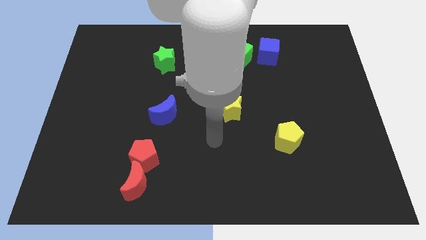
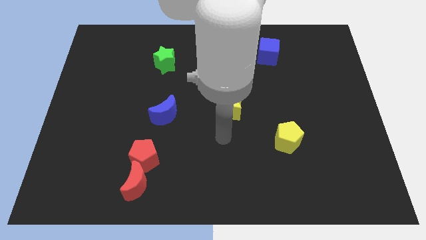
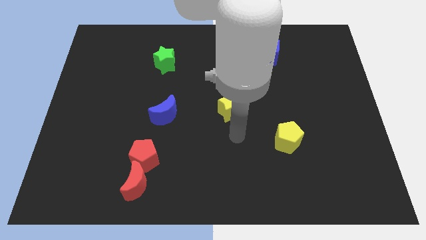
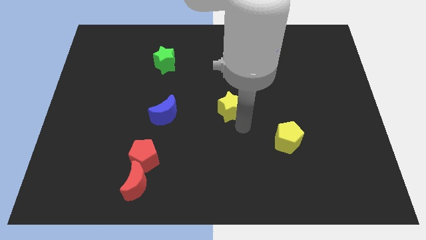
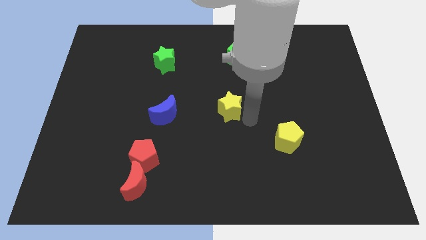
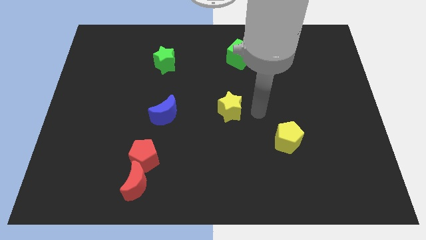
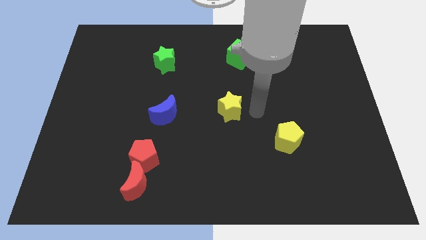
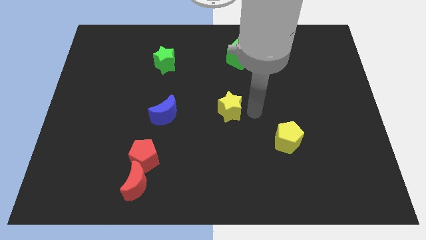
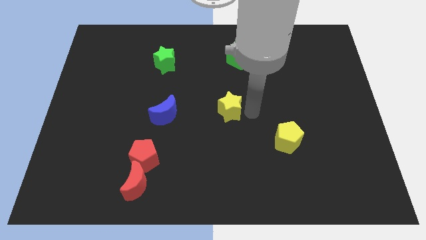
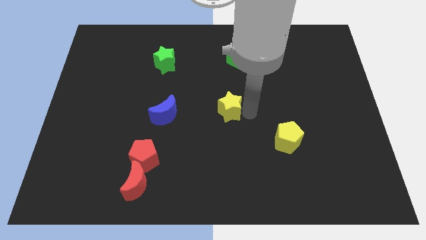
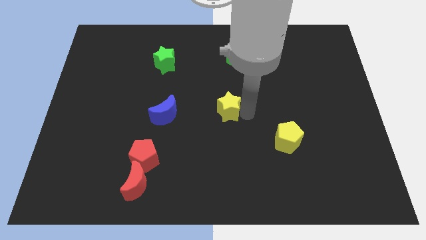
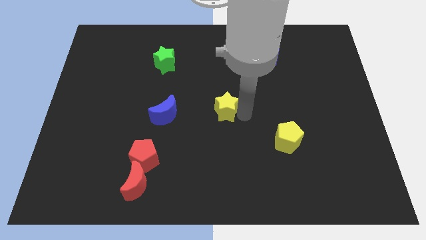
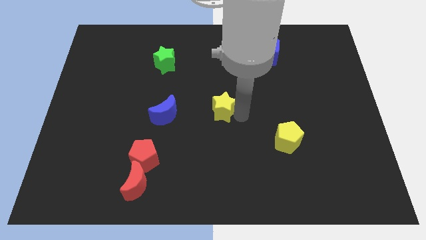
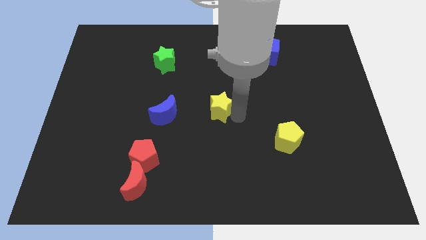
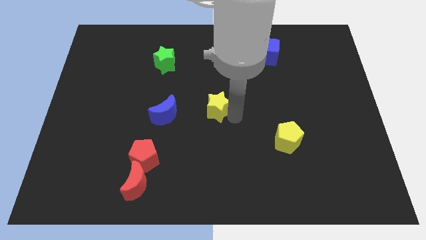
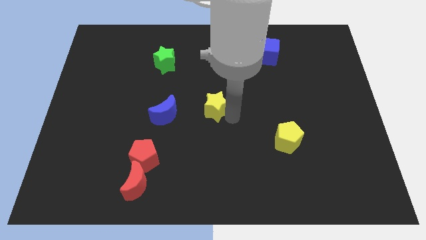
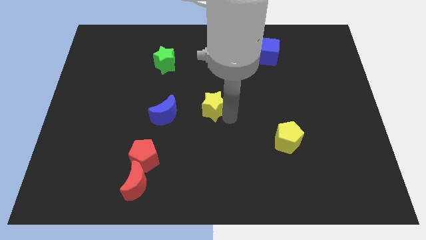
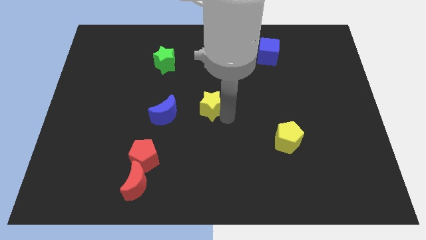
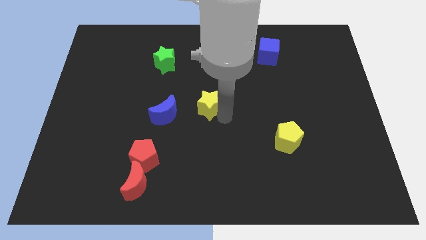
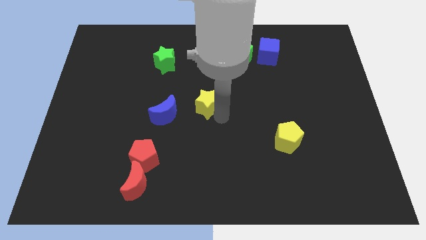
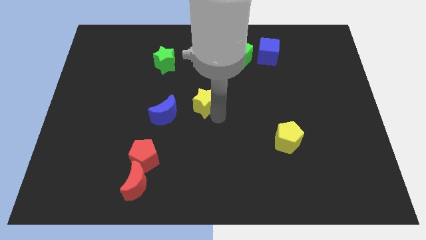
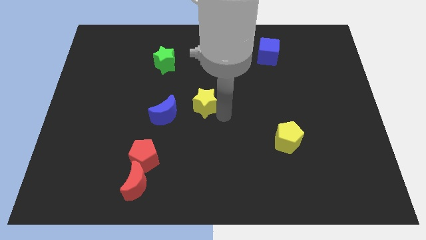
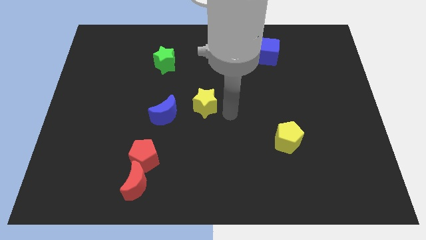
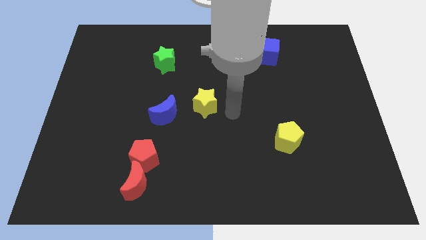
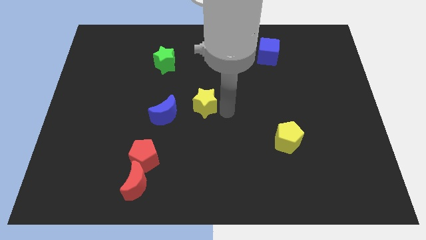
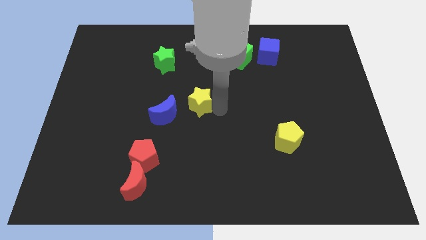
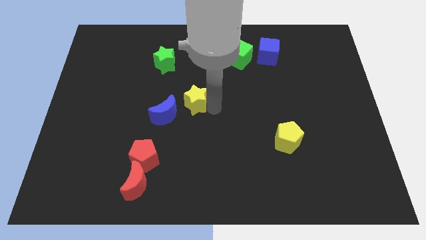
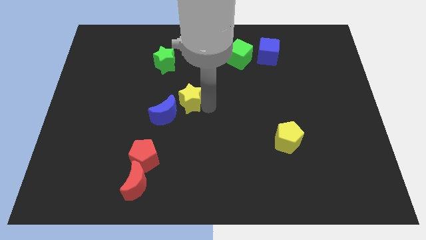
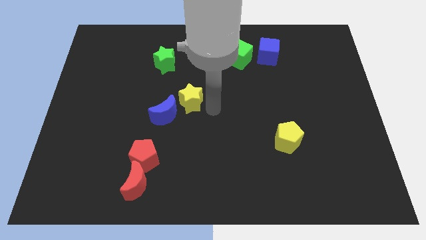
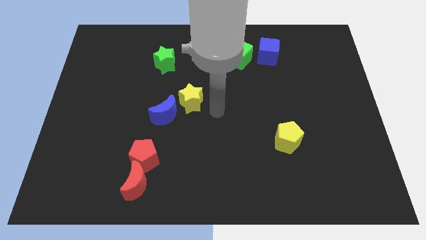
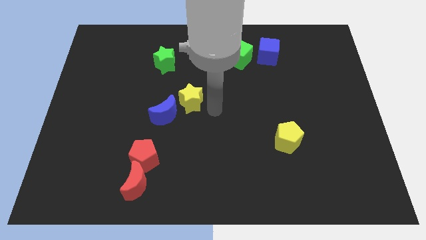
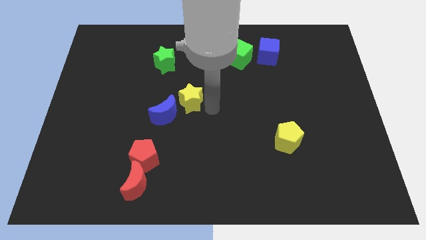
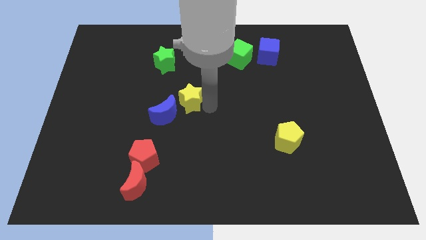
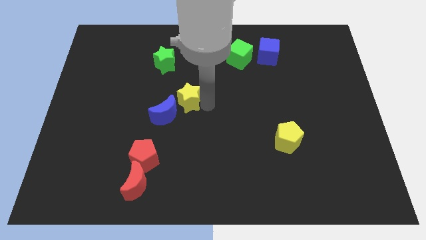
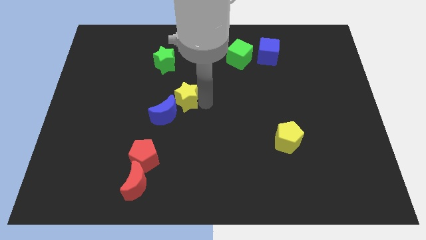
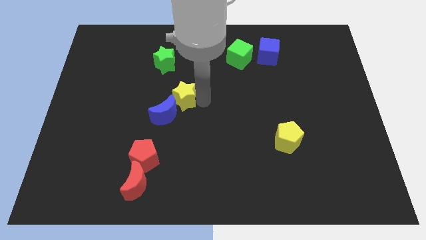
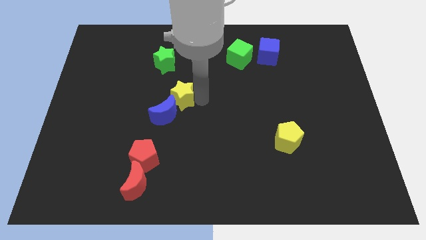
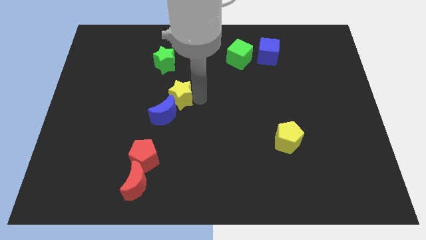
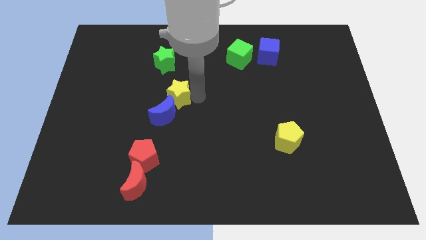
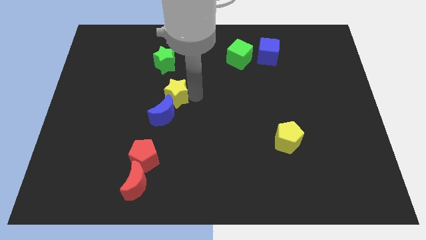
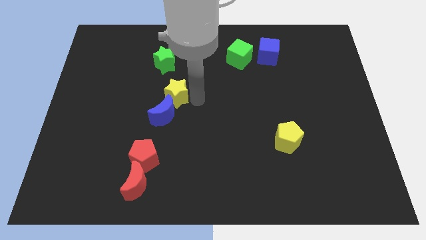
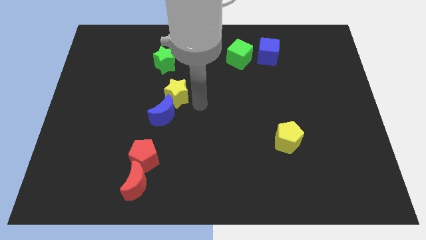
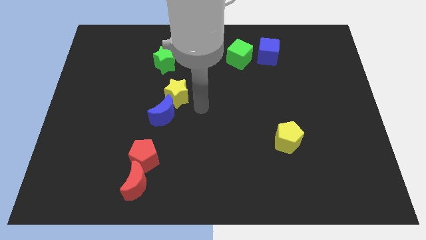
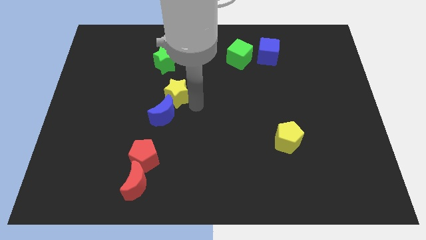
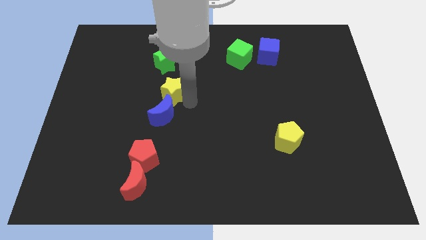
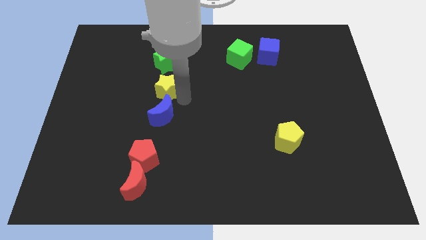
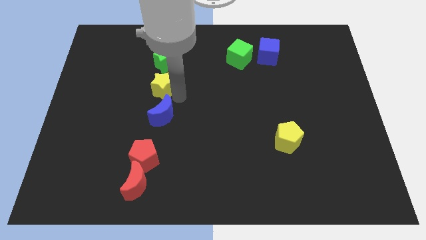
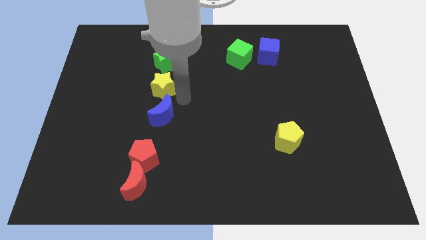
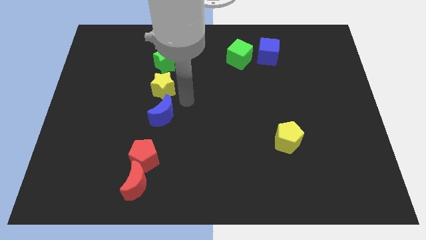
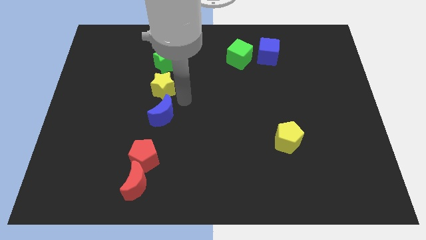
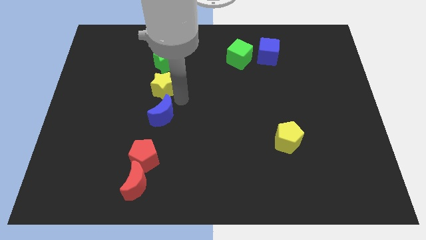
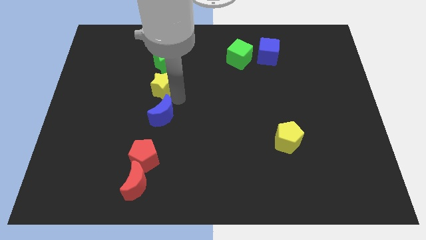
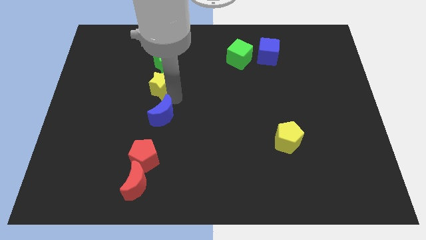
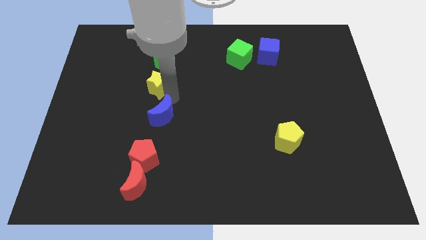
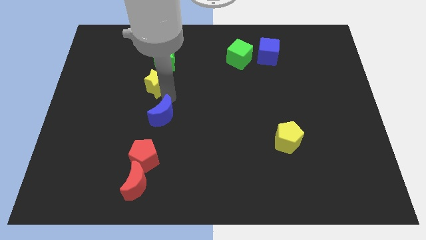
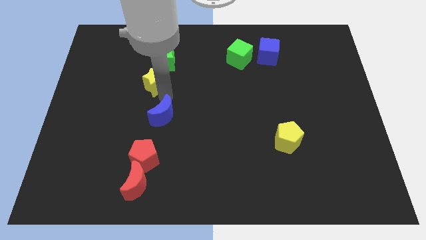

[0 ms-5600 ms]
move the yellow star to the bottom left side of the green star

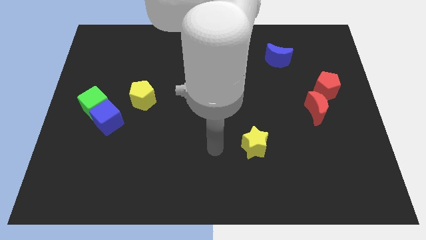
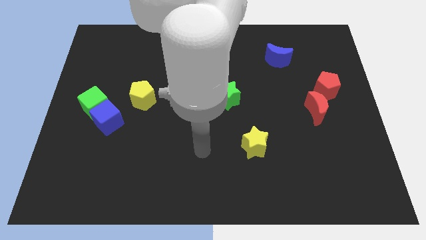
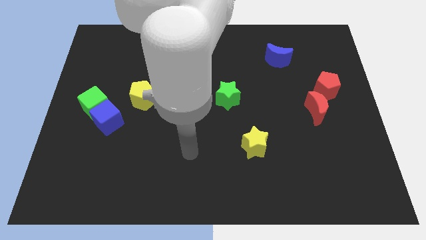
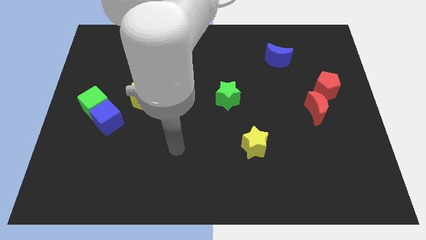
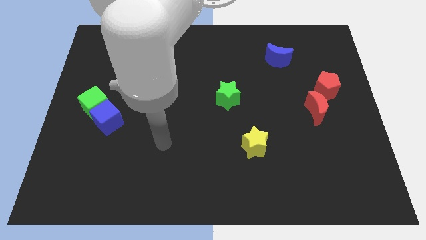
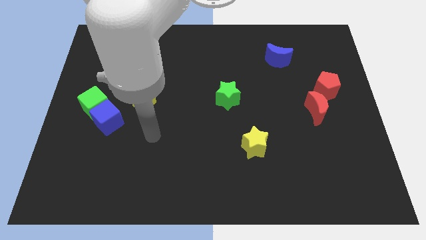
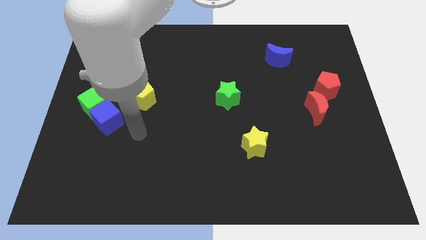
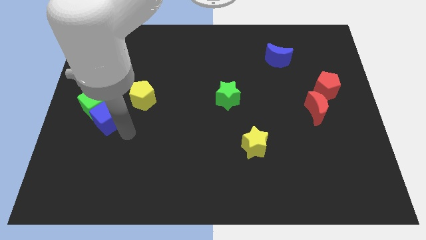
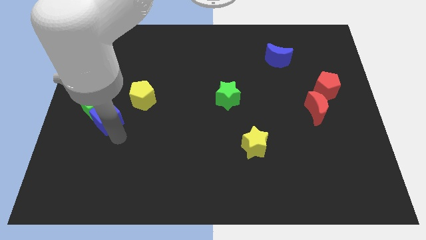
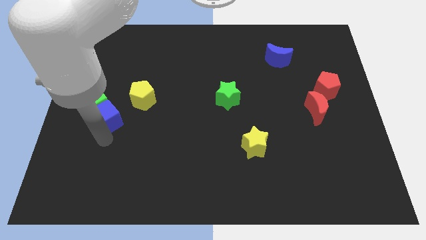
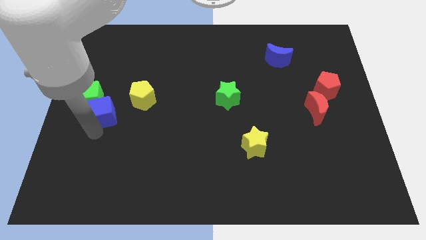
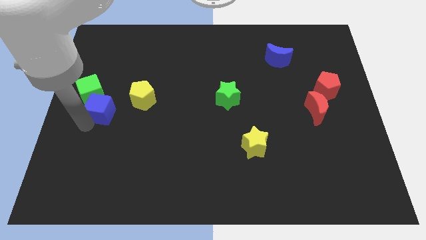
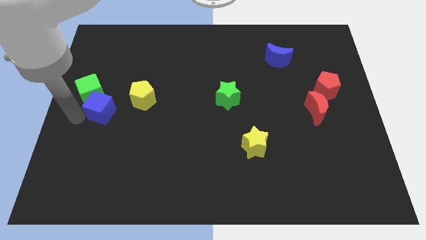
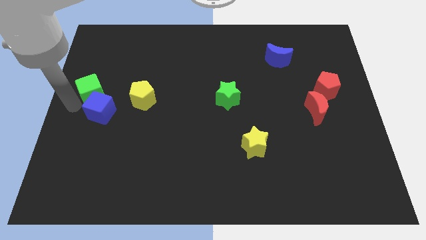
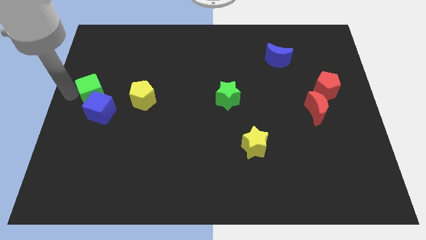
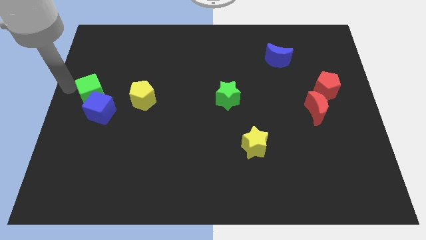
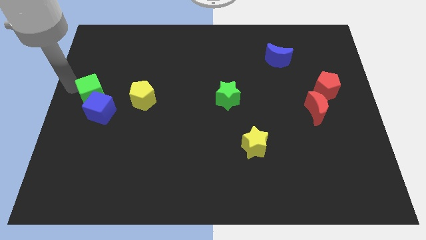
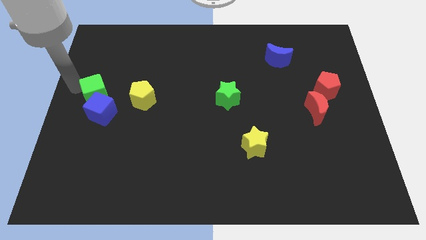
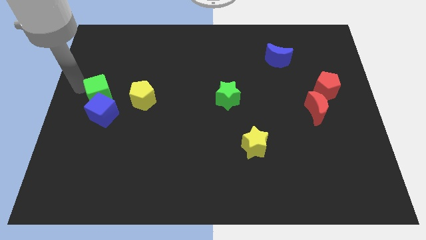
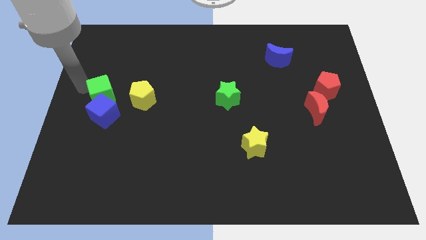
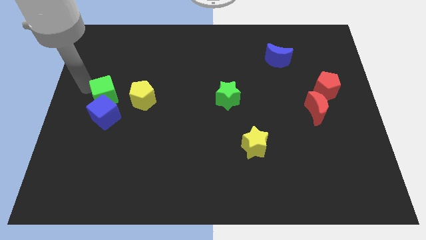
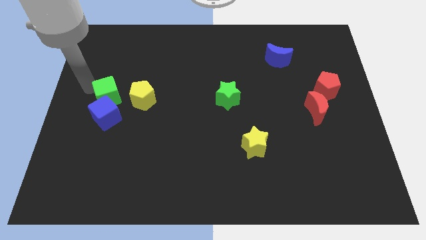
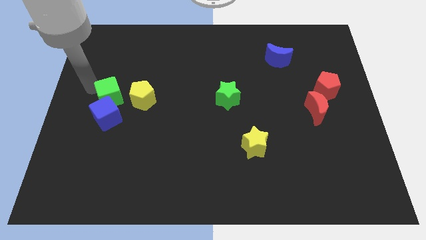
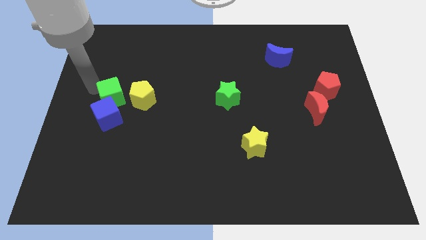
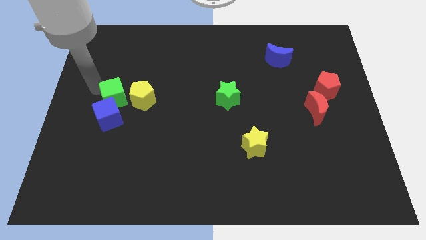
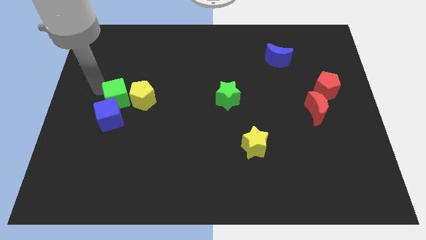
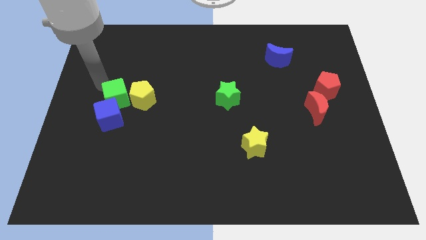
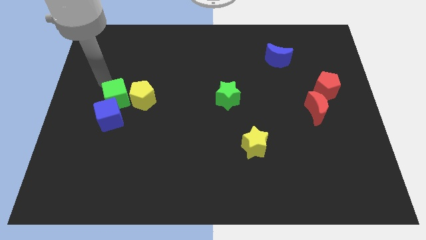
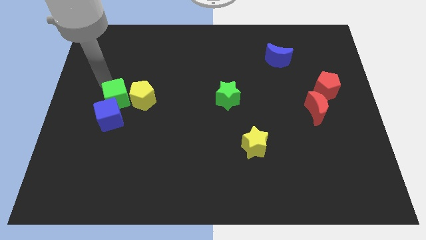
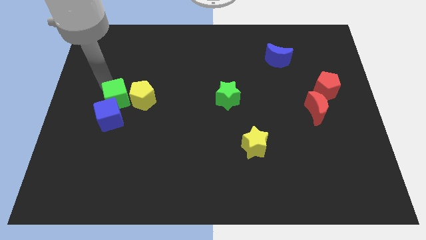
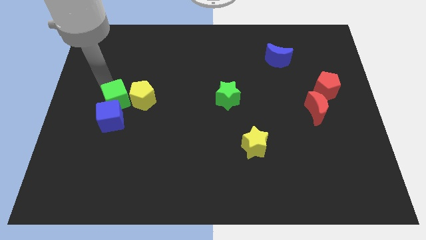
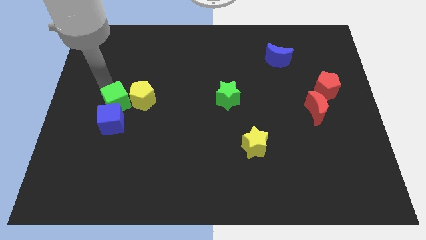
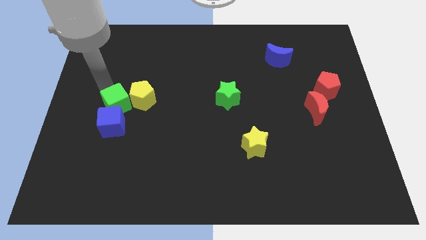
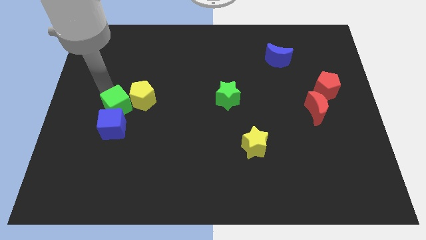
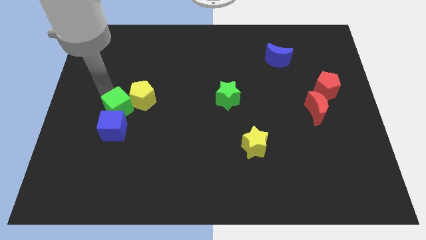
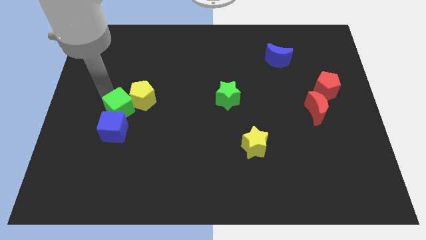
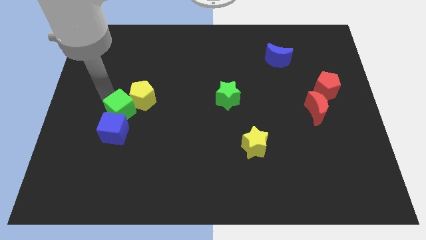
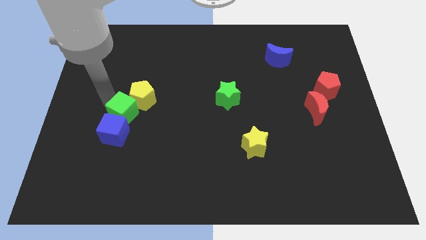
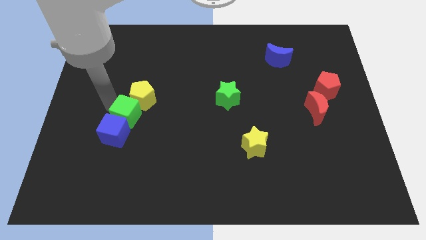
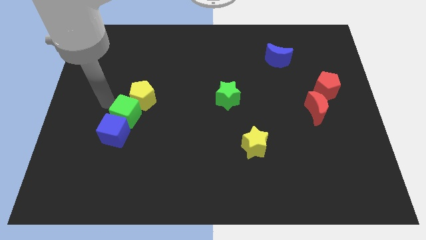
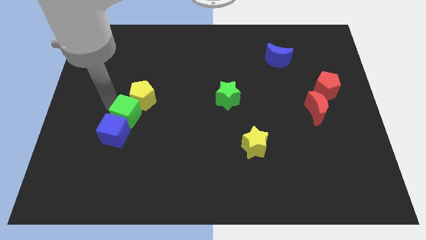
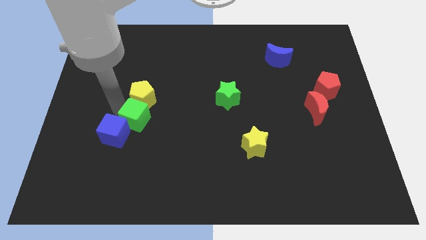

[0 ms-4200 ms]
put the green cube right of the blue cube
